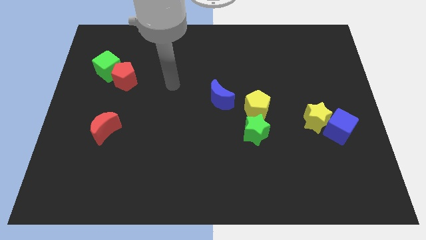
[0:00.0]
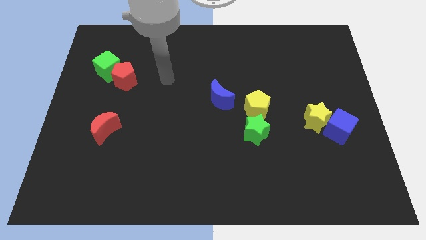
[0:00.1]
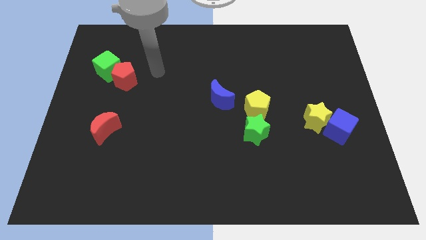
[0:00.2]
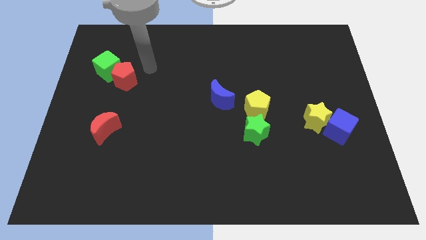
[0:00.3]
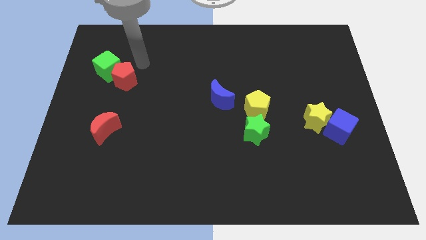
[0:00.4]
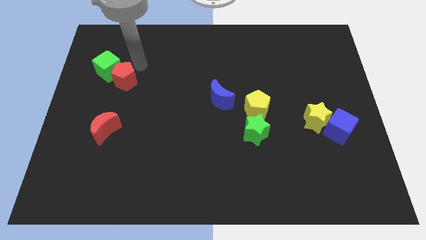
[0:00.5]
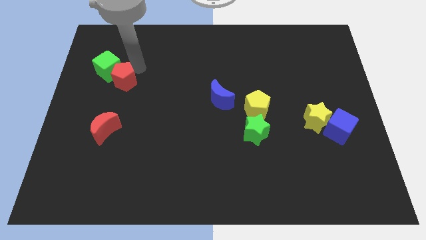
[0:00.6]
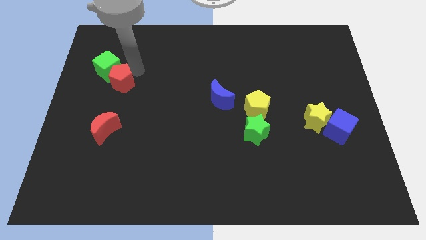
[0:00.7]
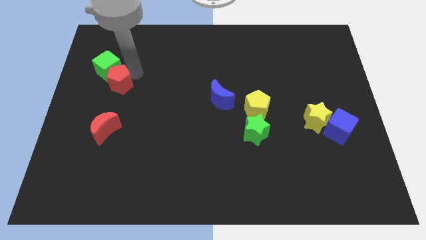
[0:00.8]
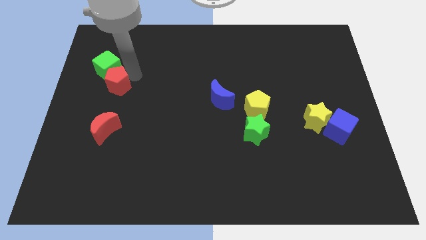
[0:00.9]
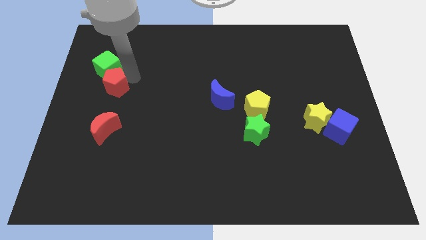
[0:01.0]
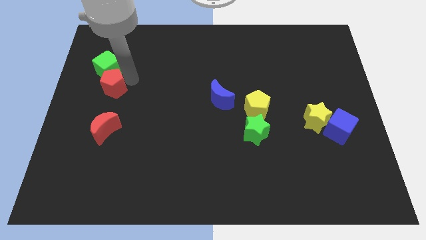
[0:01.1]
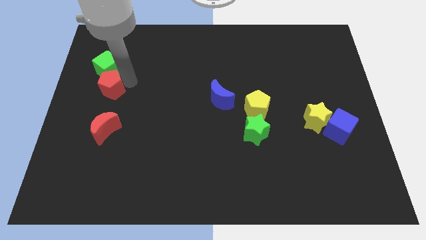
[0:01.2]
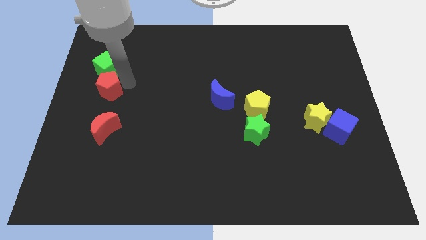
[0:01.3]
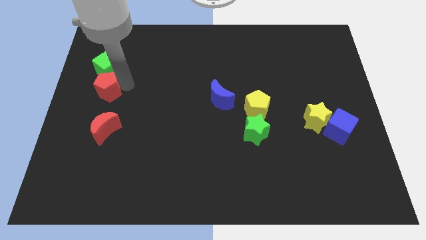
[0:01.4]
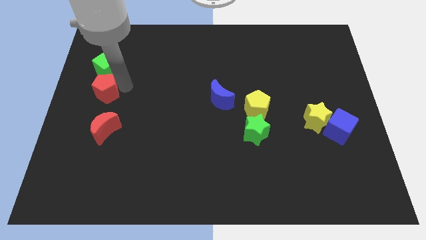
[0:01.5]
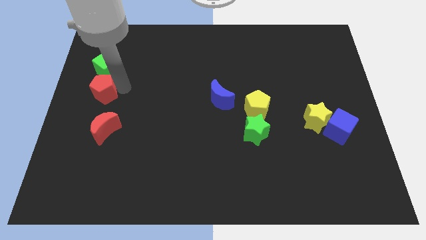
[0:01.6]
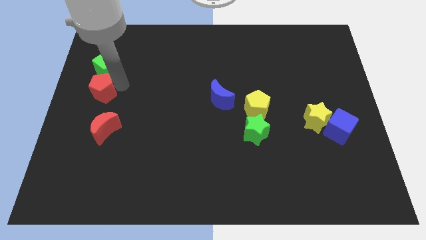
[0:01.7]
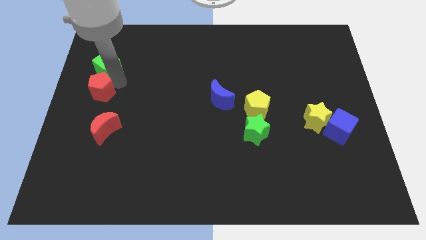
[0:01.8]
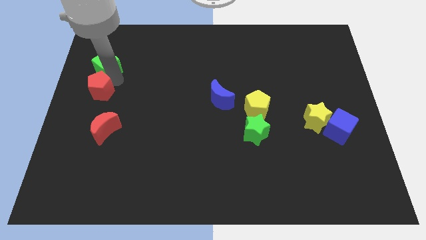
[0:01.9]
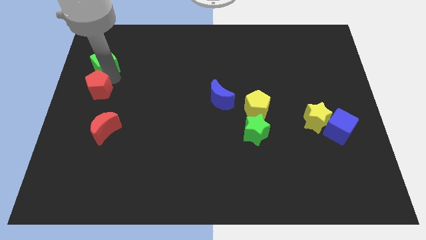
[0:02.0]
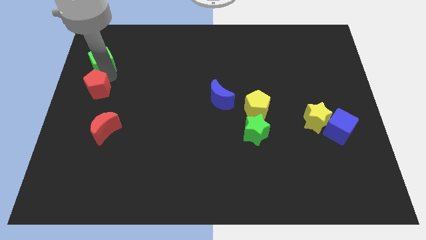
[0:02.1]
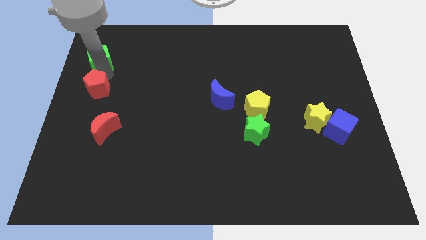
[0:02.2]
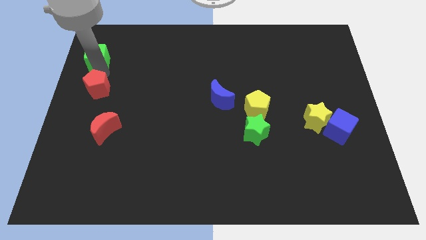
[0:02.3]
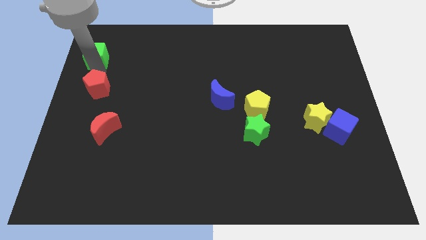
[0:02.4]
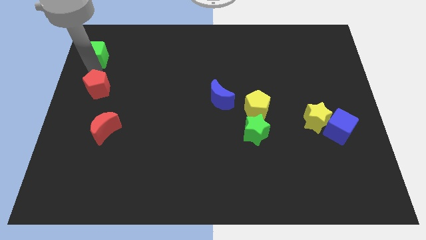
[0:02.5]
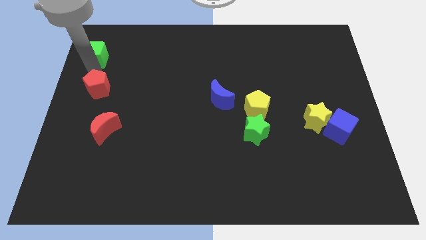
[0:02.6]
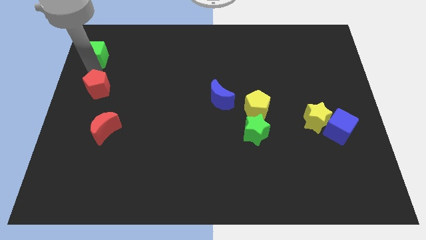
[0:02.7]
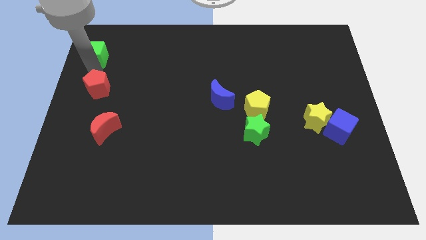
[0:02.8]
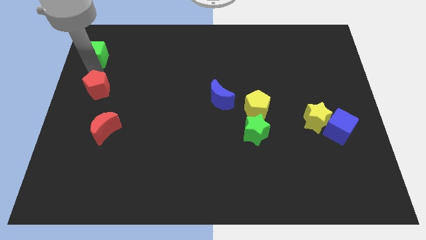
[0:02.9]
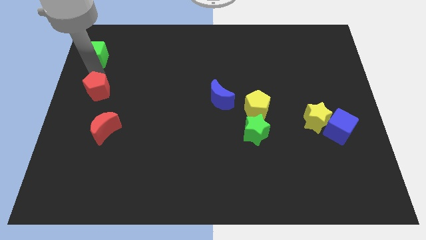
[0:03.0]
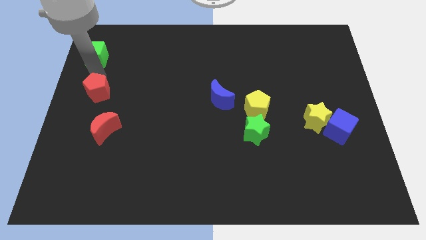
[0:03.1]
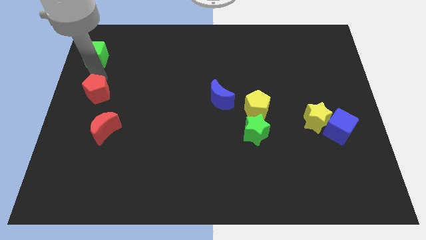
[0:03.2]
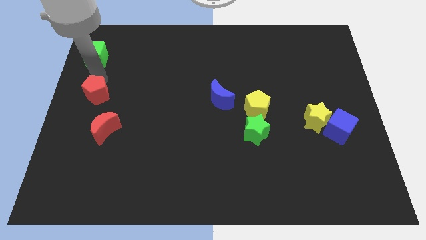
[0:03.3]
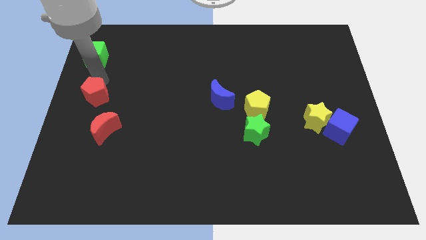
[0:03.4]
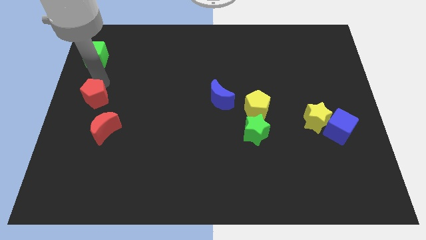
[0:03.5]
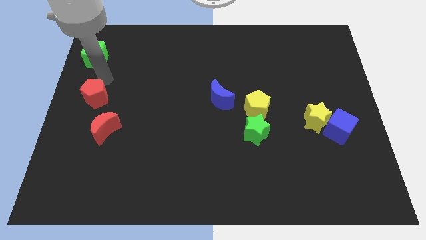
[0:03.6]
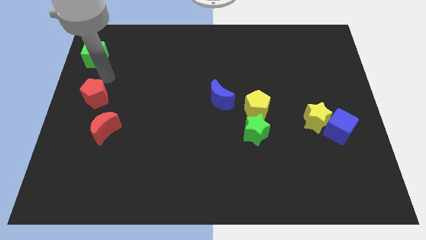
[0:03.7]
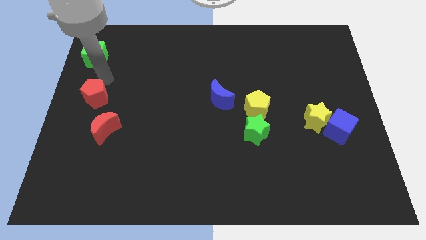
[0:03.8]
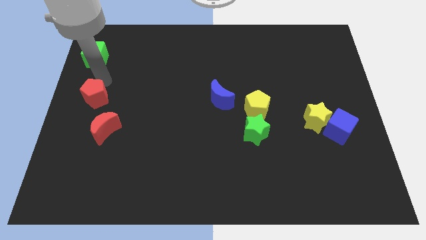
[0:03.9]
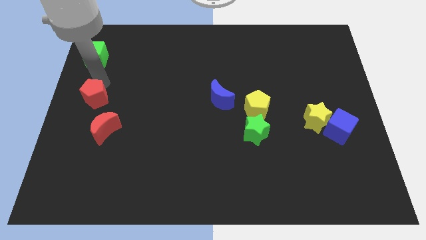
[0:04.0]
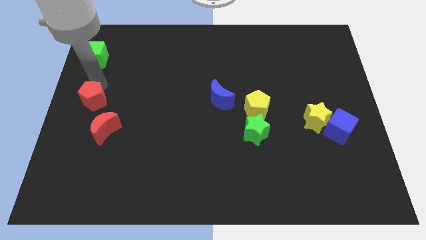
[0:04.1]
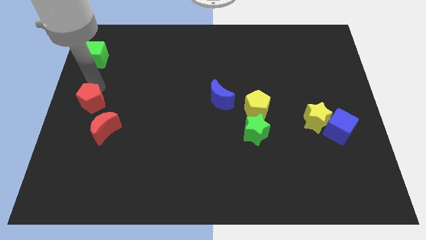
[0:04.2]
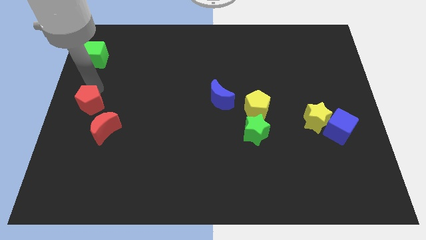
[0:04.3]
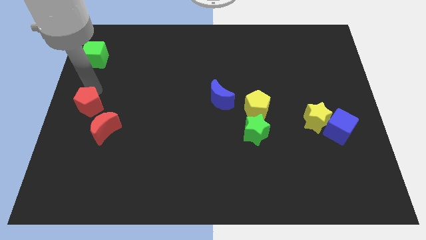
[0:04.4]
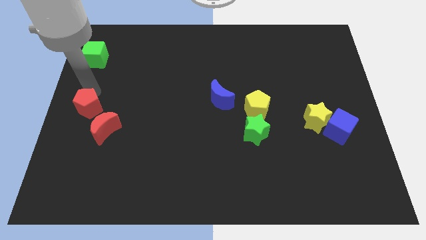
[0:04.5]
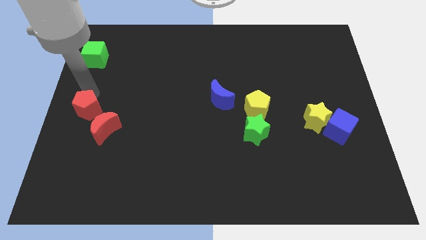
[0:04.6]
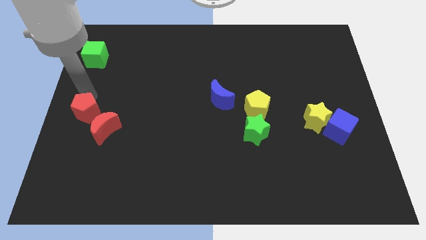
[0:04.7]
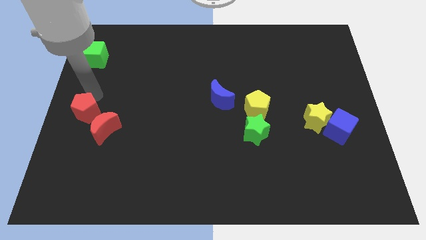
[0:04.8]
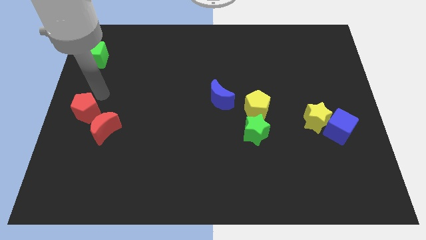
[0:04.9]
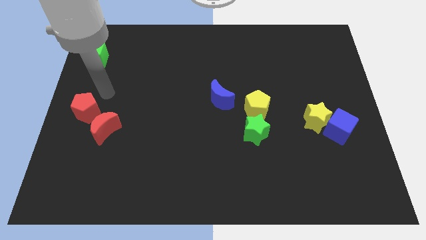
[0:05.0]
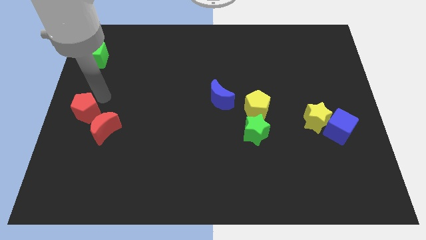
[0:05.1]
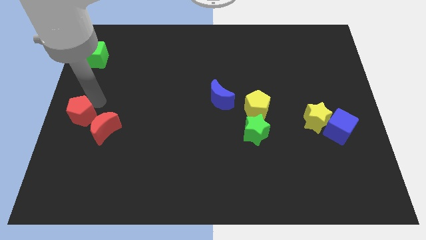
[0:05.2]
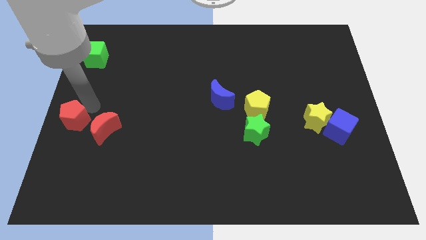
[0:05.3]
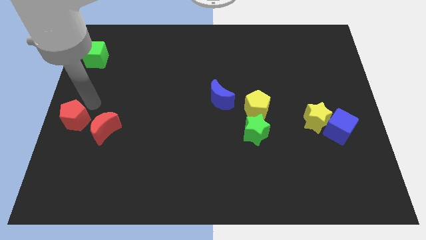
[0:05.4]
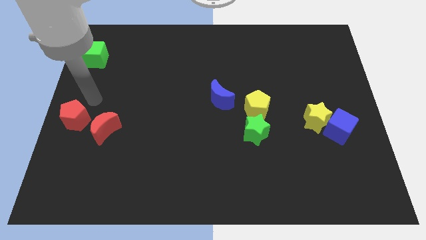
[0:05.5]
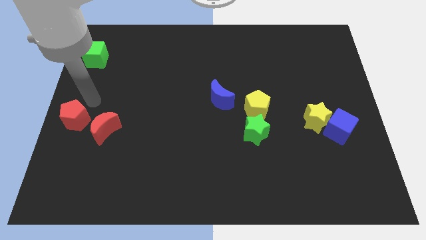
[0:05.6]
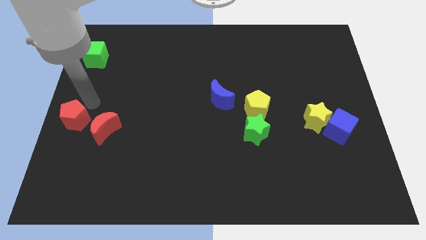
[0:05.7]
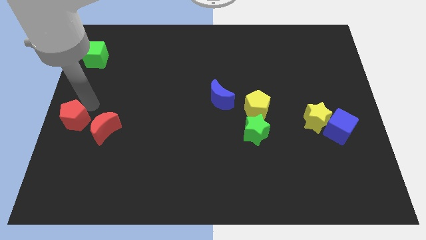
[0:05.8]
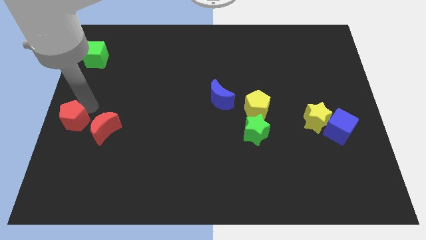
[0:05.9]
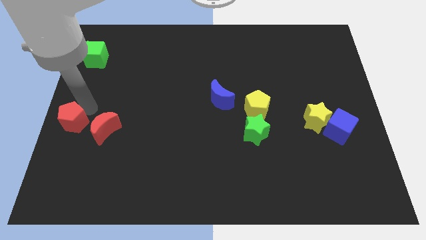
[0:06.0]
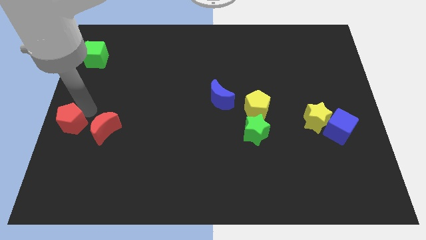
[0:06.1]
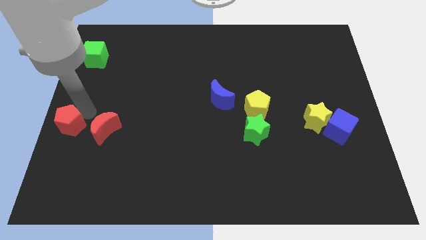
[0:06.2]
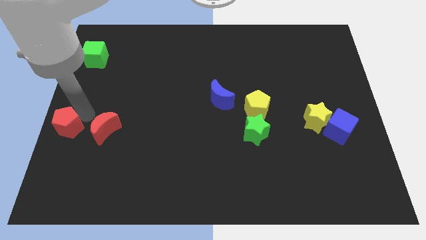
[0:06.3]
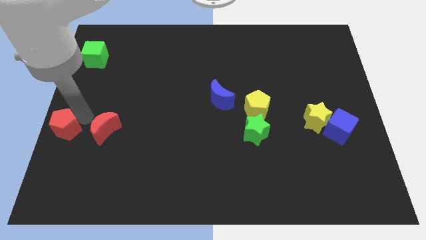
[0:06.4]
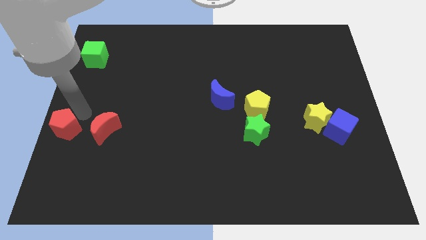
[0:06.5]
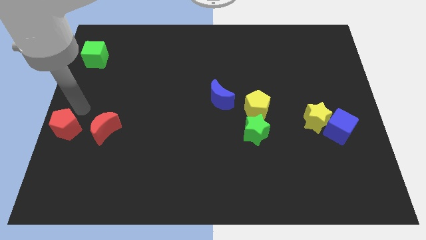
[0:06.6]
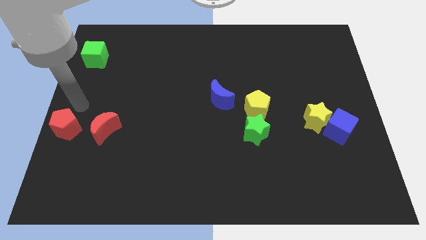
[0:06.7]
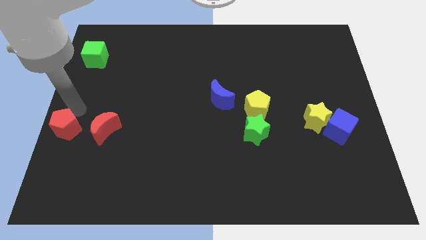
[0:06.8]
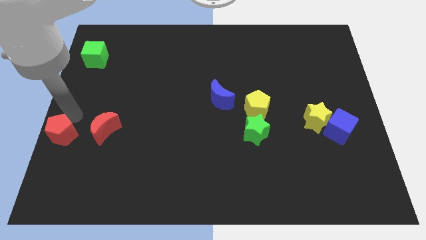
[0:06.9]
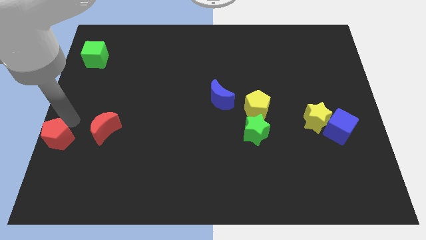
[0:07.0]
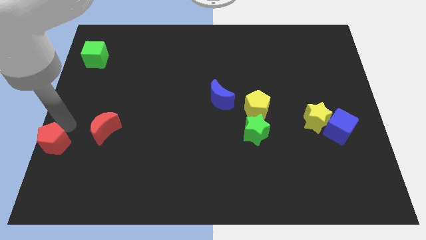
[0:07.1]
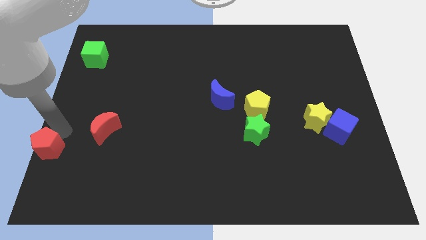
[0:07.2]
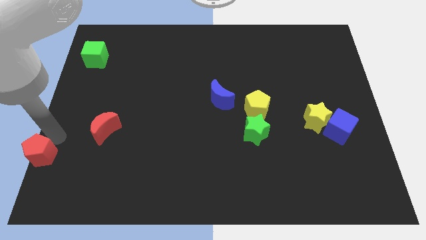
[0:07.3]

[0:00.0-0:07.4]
move the red pentagon to the bottom left
